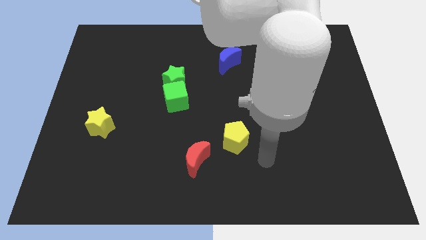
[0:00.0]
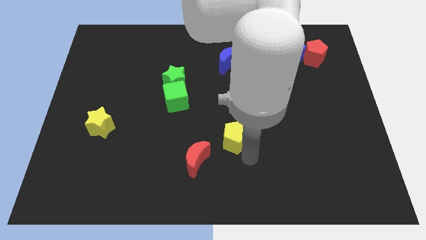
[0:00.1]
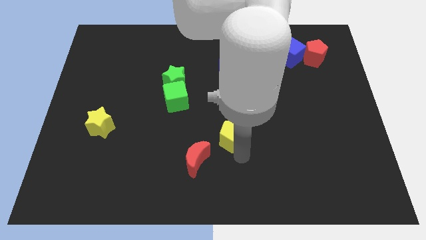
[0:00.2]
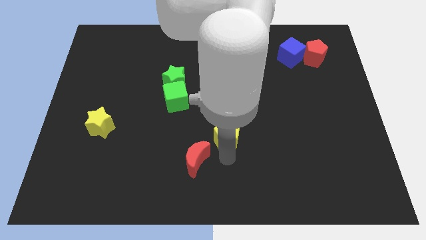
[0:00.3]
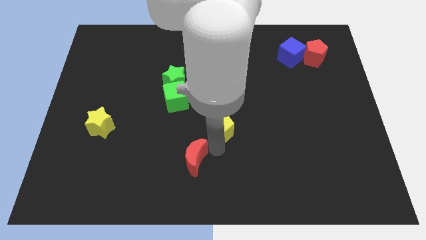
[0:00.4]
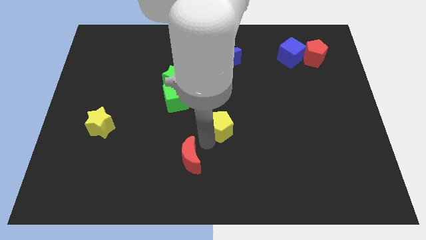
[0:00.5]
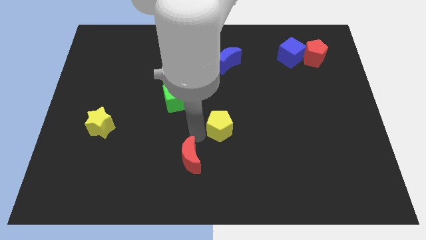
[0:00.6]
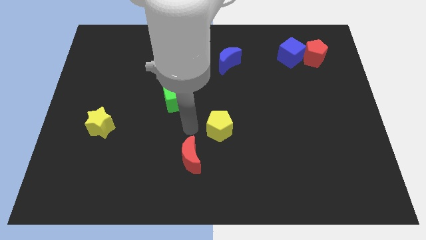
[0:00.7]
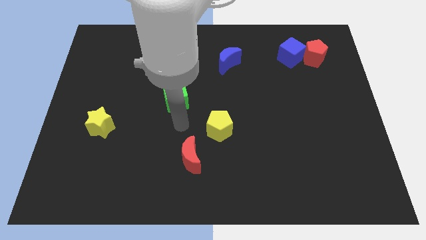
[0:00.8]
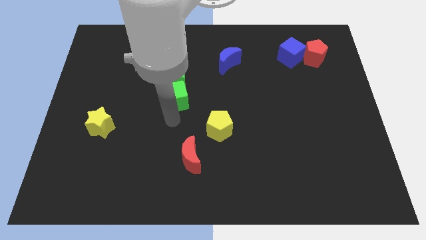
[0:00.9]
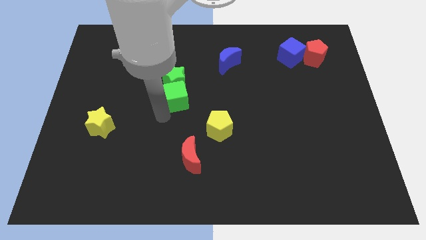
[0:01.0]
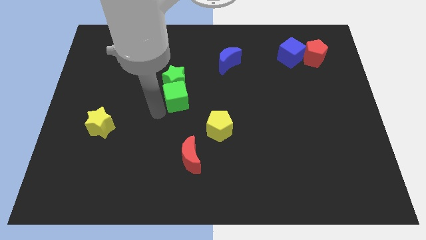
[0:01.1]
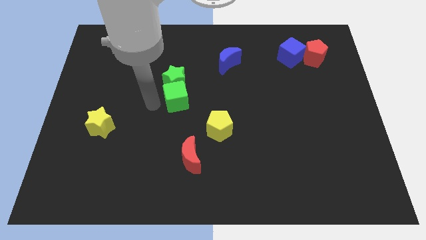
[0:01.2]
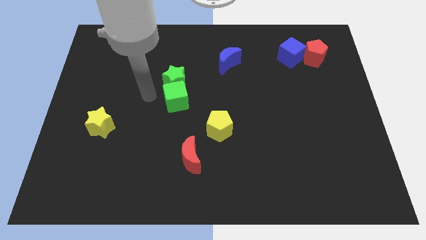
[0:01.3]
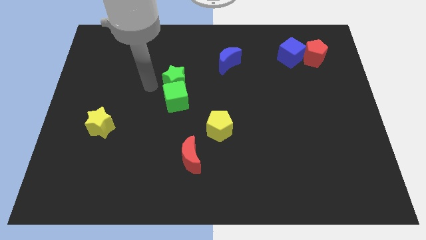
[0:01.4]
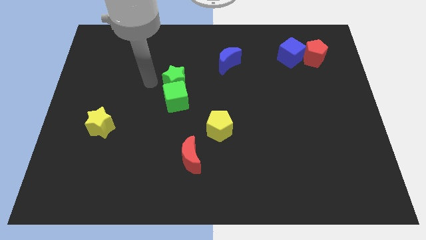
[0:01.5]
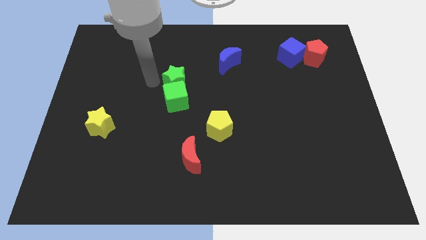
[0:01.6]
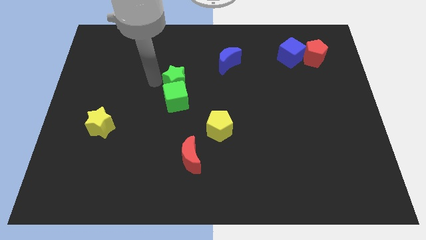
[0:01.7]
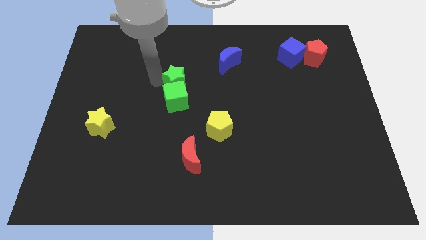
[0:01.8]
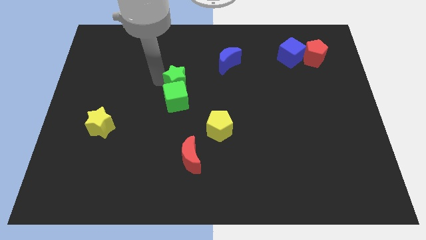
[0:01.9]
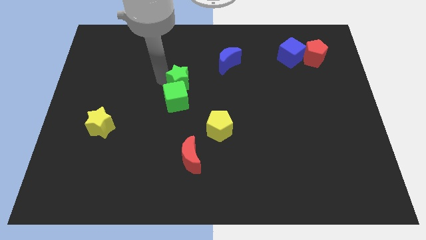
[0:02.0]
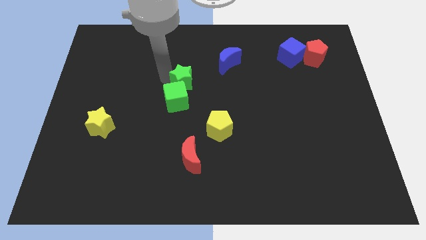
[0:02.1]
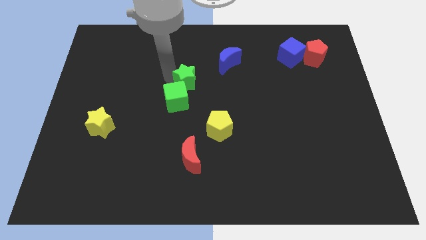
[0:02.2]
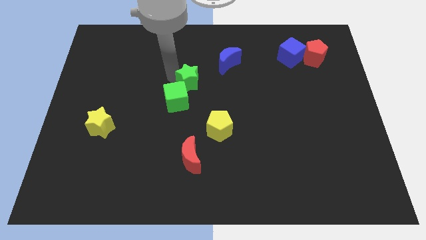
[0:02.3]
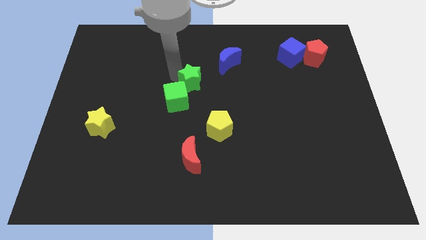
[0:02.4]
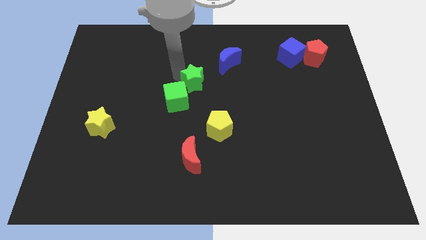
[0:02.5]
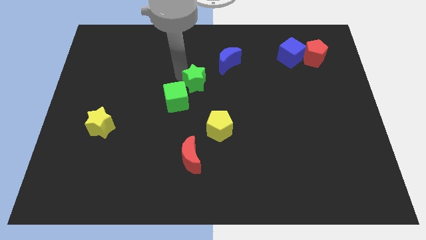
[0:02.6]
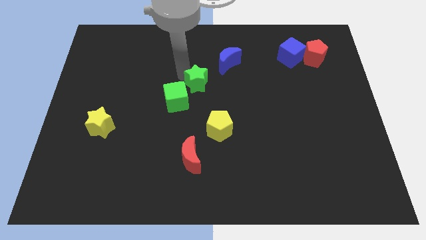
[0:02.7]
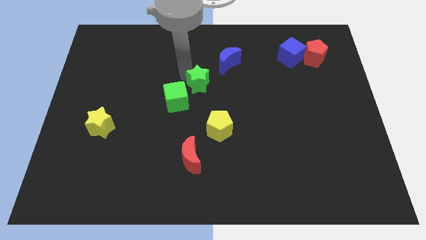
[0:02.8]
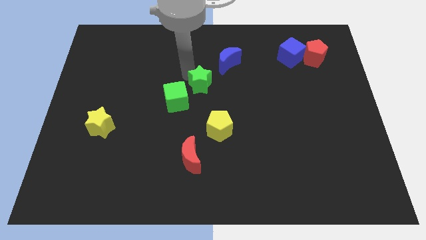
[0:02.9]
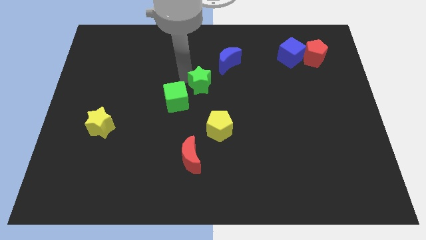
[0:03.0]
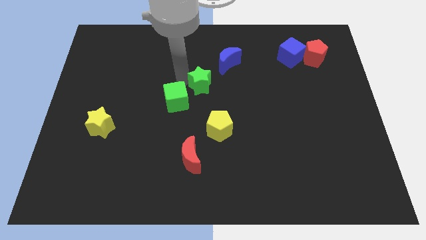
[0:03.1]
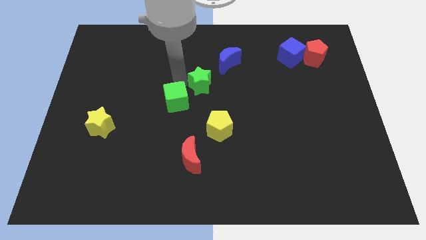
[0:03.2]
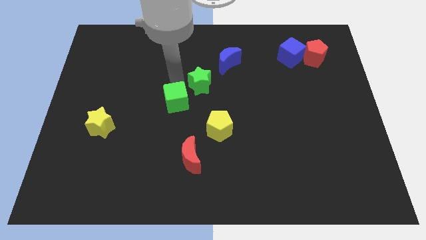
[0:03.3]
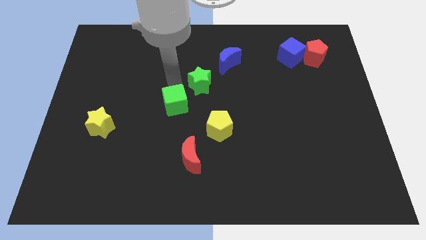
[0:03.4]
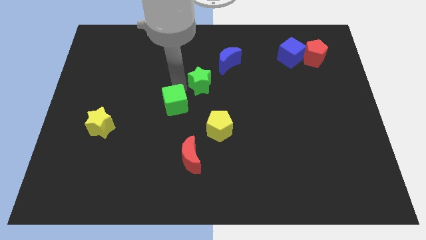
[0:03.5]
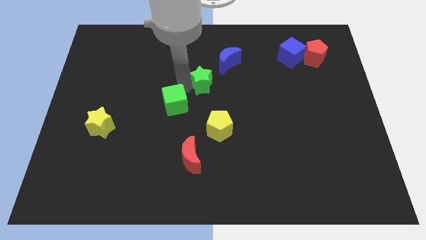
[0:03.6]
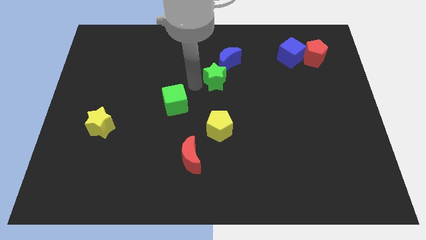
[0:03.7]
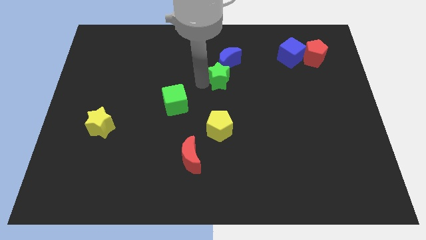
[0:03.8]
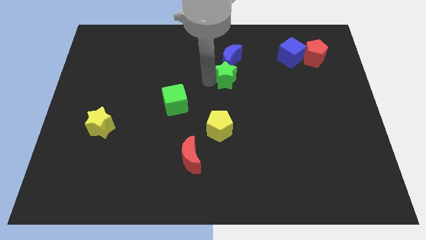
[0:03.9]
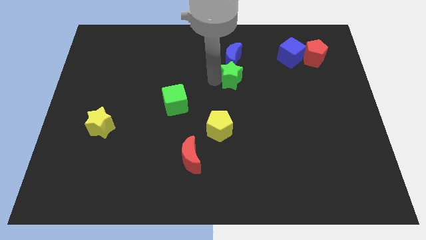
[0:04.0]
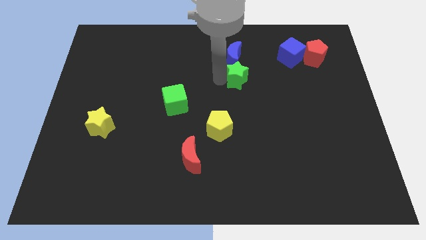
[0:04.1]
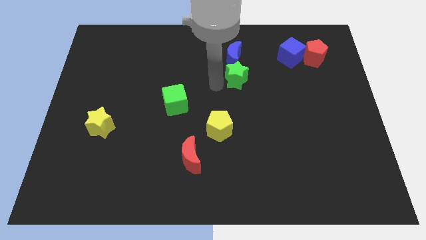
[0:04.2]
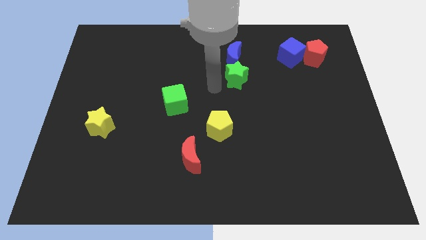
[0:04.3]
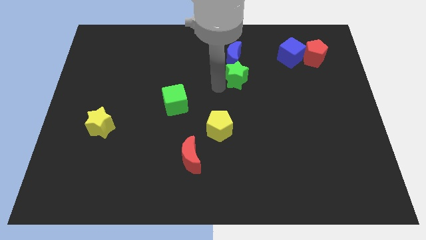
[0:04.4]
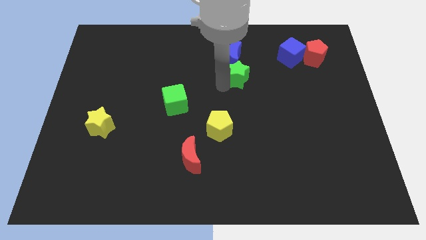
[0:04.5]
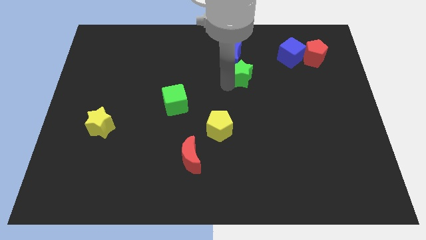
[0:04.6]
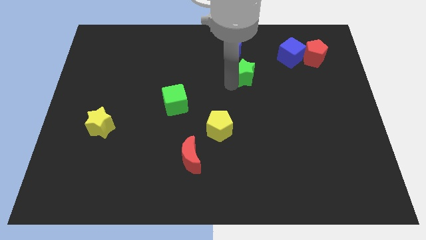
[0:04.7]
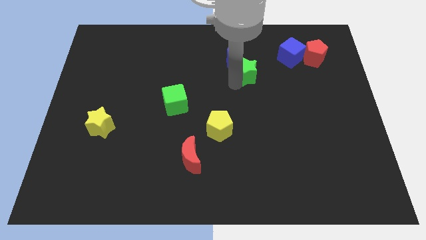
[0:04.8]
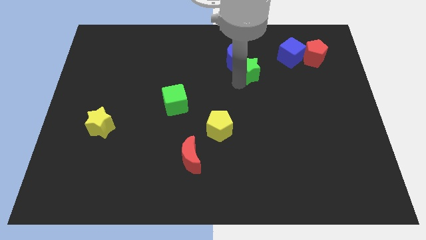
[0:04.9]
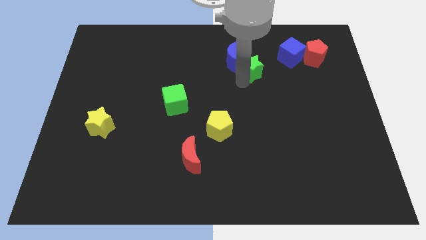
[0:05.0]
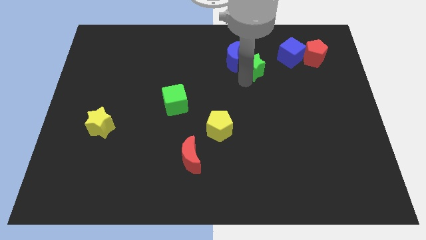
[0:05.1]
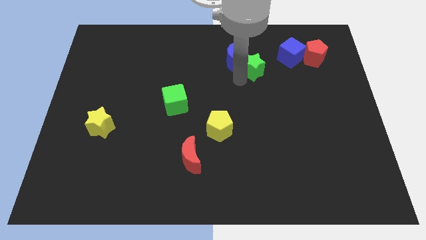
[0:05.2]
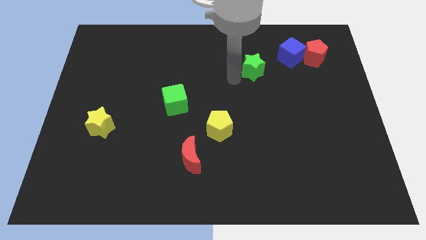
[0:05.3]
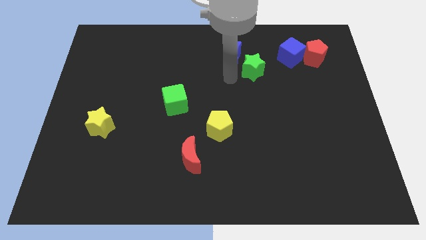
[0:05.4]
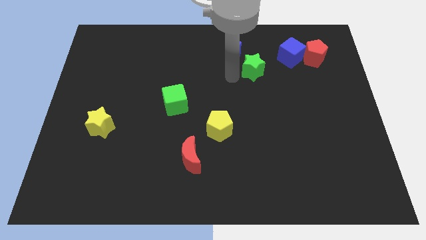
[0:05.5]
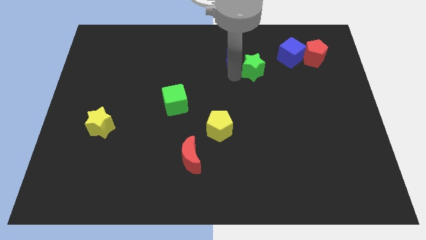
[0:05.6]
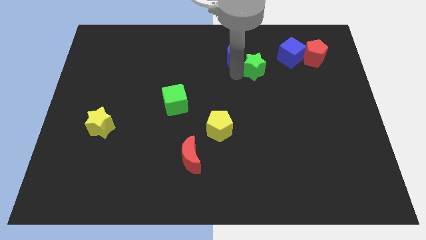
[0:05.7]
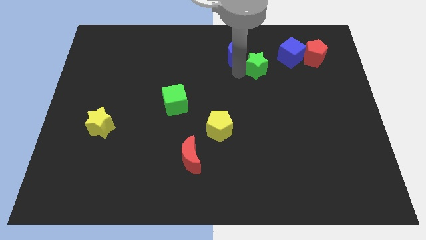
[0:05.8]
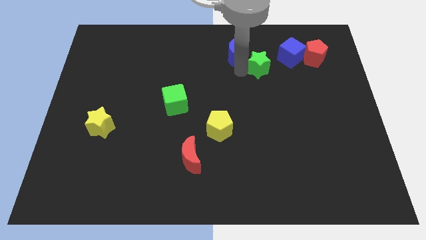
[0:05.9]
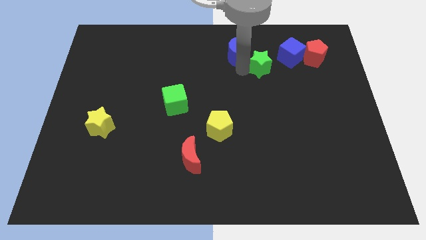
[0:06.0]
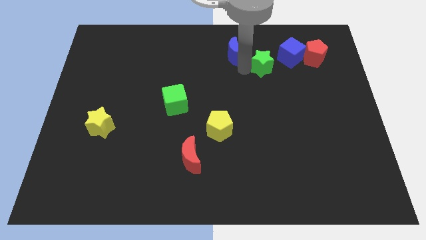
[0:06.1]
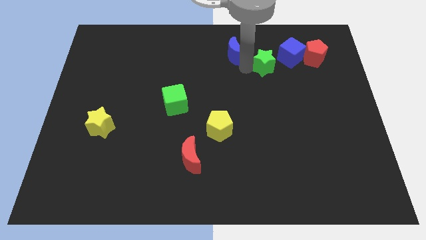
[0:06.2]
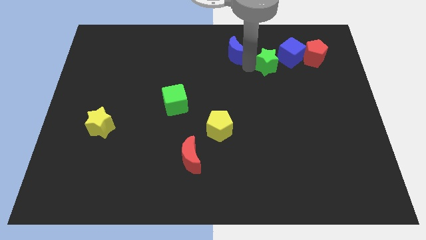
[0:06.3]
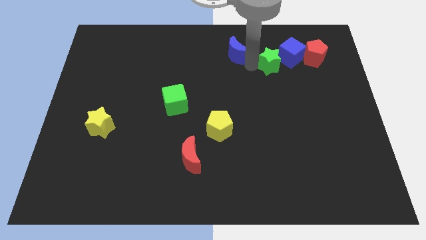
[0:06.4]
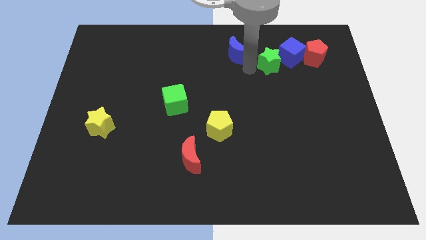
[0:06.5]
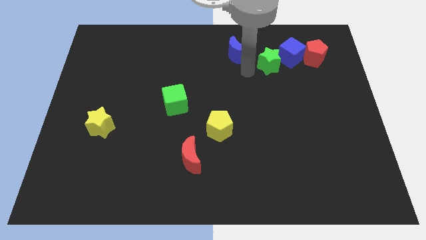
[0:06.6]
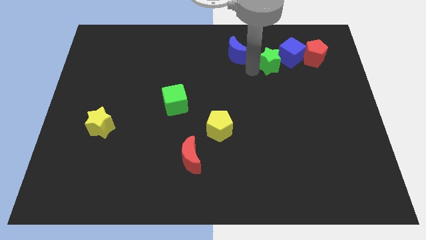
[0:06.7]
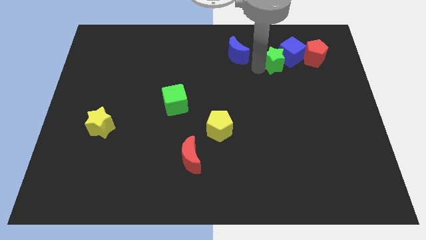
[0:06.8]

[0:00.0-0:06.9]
put the green star close to the blue cube

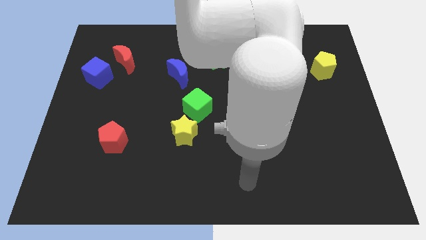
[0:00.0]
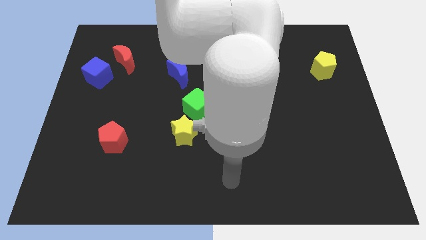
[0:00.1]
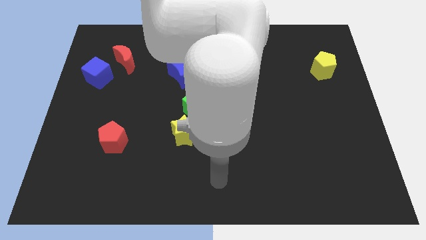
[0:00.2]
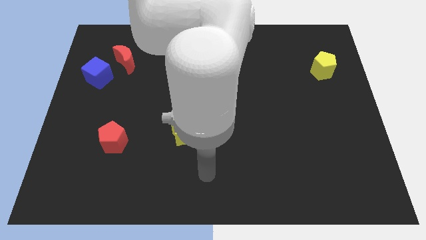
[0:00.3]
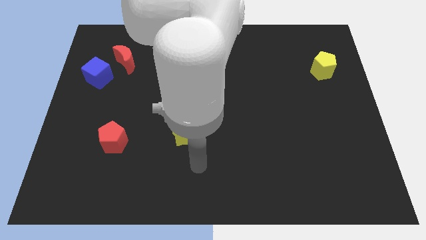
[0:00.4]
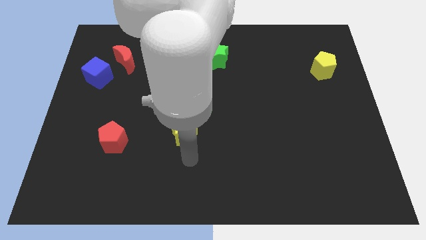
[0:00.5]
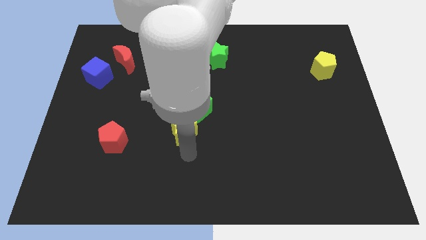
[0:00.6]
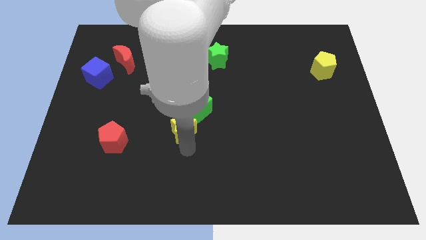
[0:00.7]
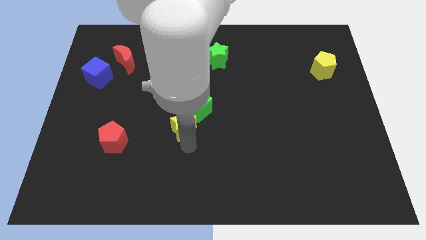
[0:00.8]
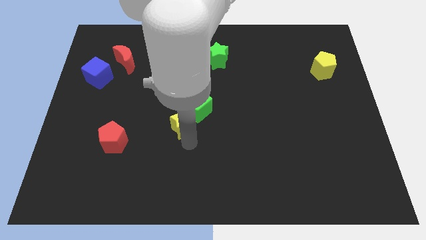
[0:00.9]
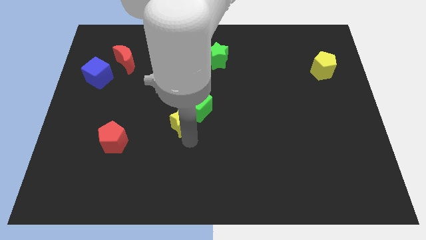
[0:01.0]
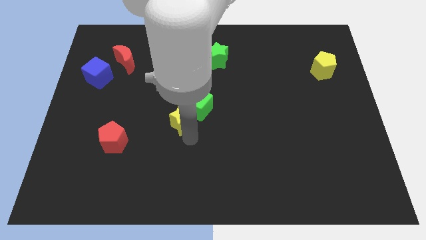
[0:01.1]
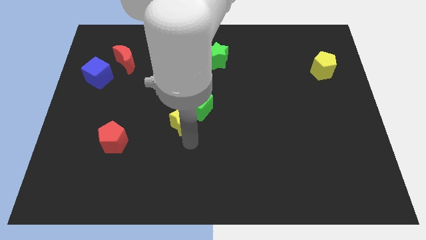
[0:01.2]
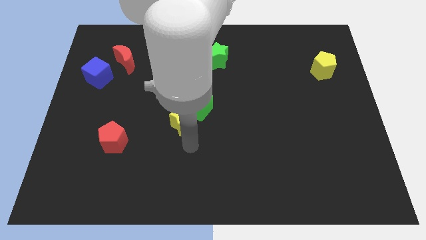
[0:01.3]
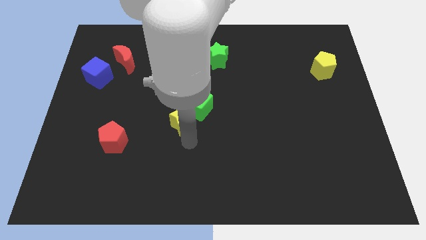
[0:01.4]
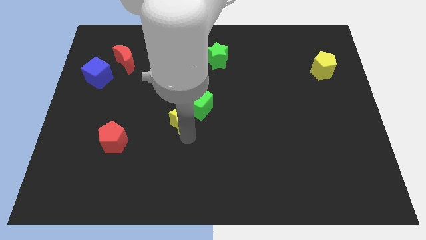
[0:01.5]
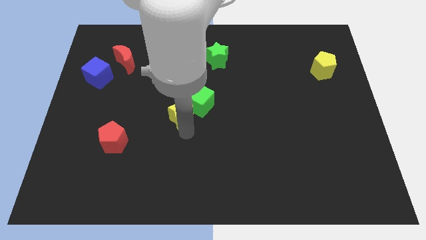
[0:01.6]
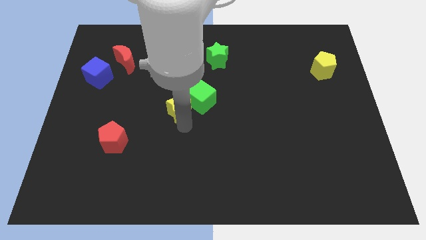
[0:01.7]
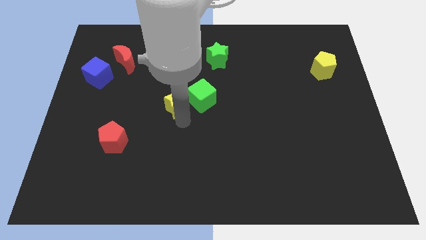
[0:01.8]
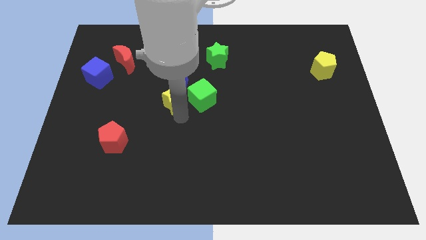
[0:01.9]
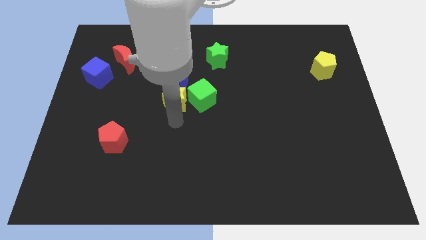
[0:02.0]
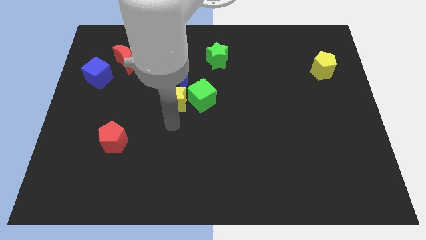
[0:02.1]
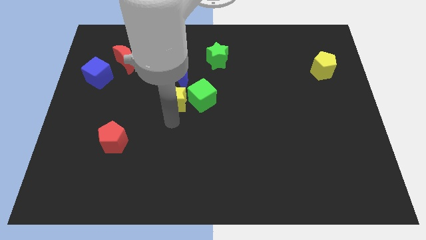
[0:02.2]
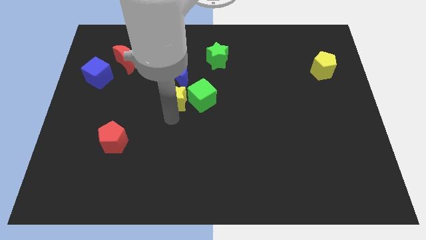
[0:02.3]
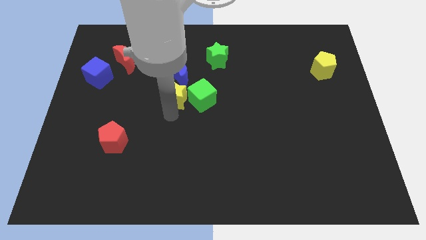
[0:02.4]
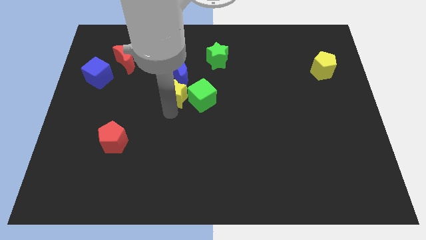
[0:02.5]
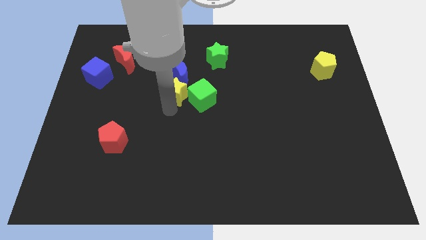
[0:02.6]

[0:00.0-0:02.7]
move the yellow star towards the blue moon
